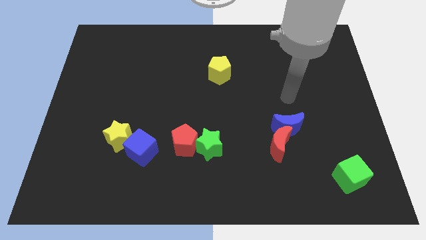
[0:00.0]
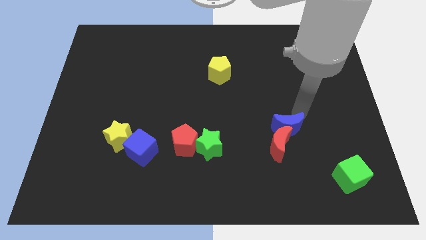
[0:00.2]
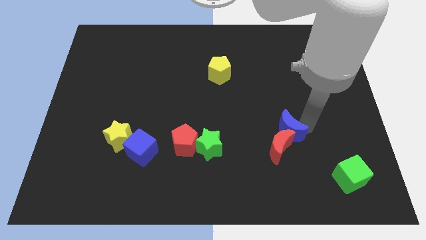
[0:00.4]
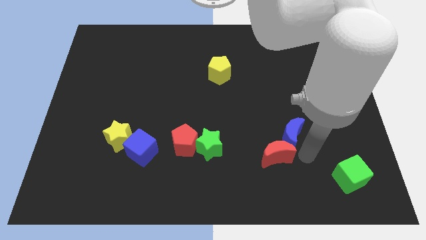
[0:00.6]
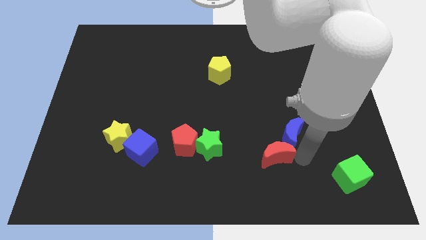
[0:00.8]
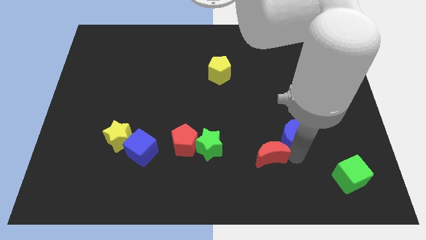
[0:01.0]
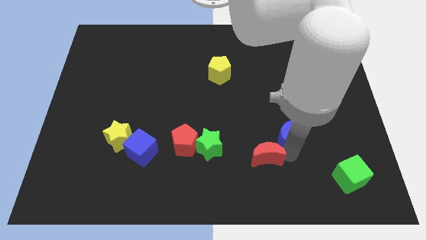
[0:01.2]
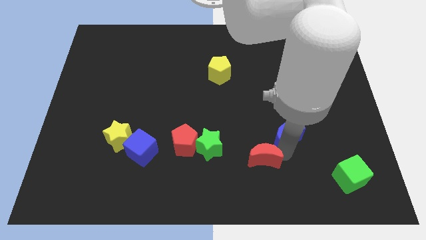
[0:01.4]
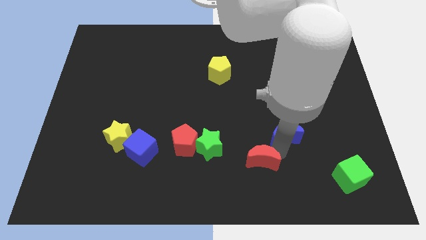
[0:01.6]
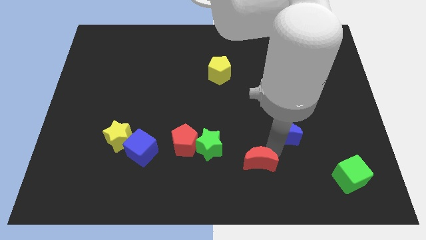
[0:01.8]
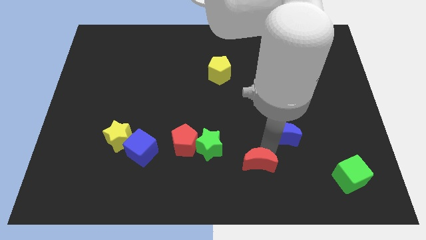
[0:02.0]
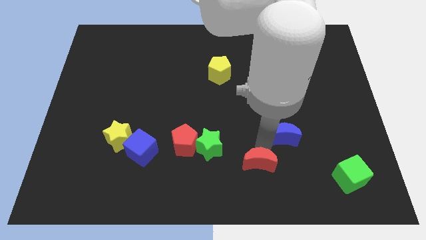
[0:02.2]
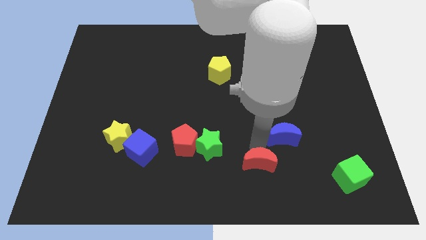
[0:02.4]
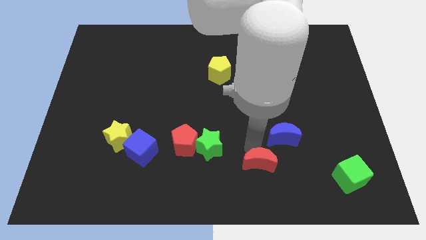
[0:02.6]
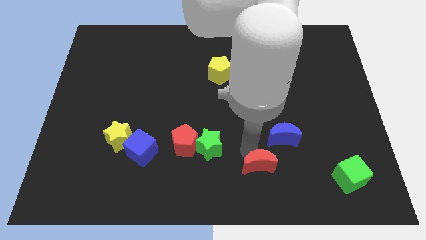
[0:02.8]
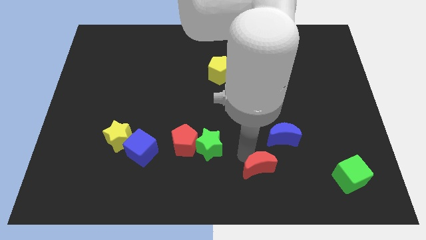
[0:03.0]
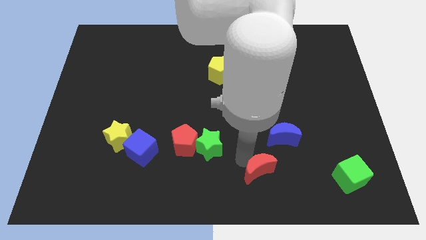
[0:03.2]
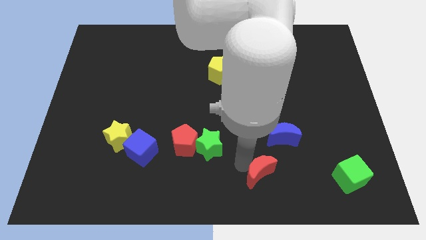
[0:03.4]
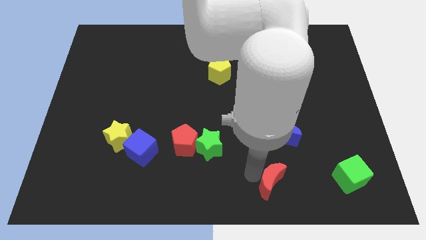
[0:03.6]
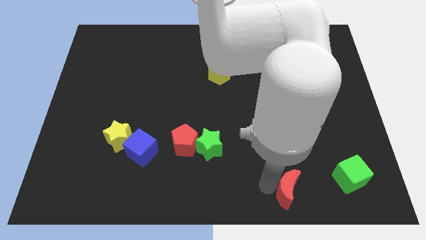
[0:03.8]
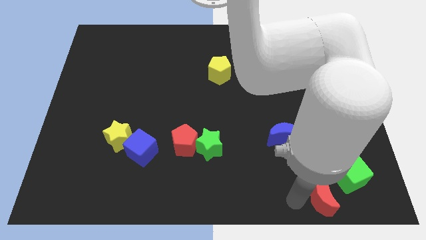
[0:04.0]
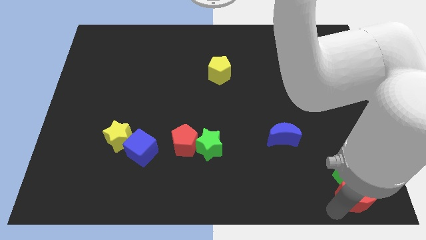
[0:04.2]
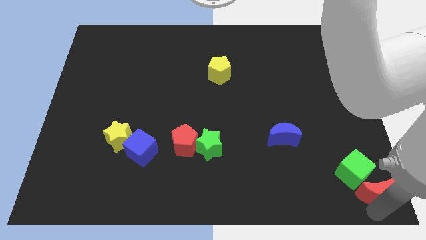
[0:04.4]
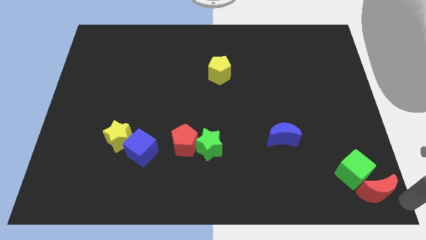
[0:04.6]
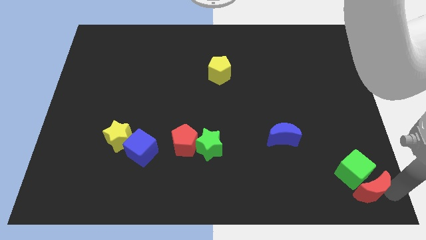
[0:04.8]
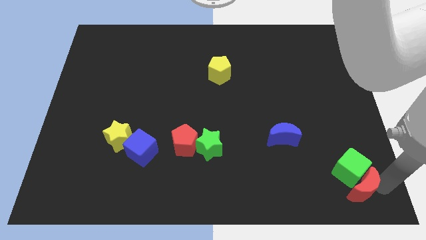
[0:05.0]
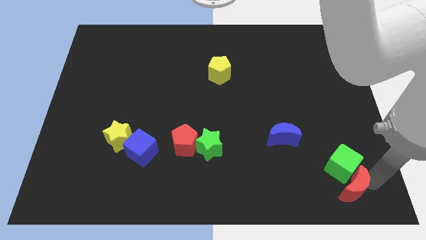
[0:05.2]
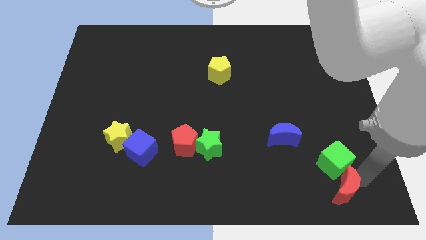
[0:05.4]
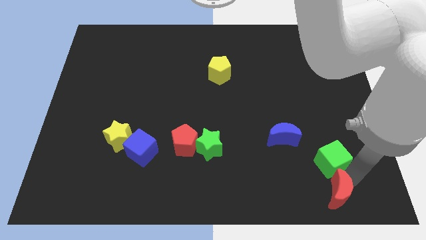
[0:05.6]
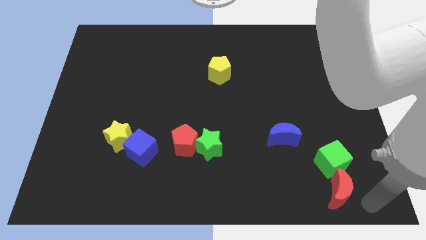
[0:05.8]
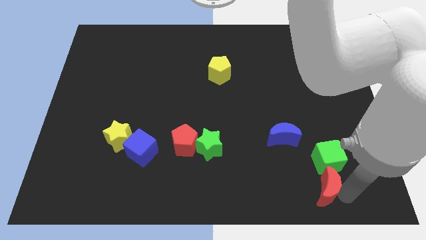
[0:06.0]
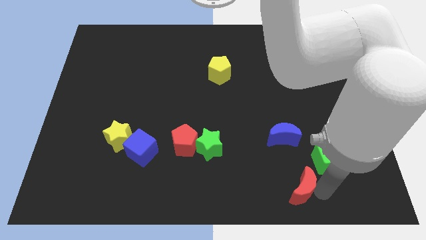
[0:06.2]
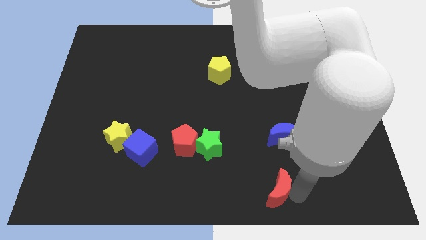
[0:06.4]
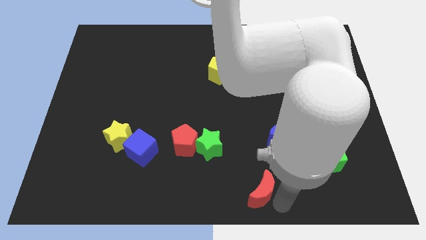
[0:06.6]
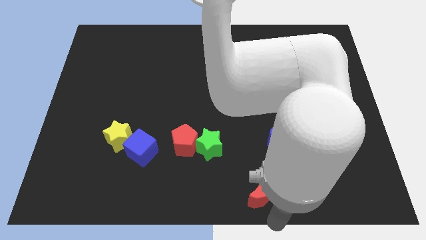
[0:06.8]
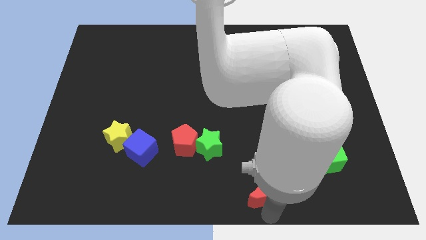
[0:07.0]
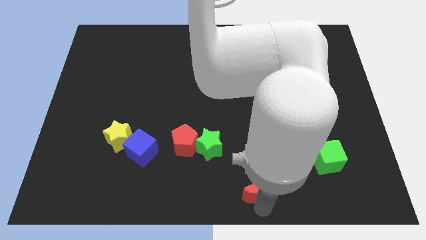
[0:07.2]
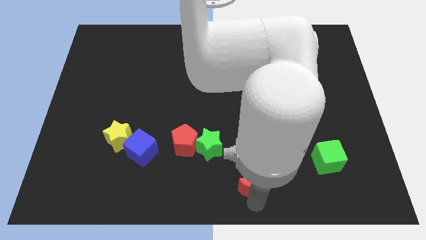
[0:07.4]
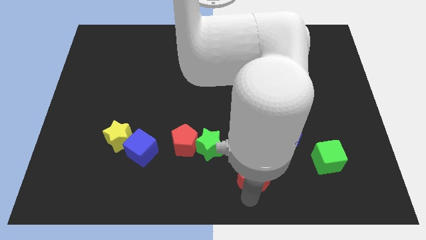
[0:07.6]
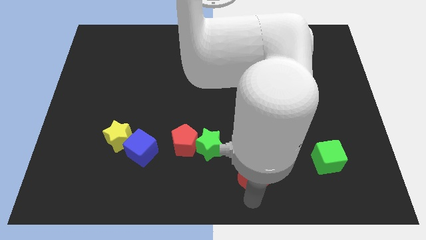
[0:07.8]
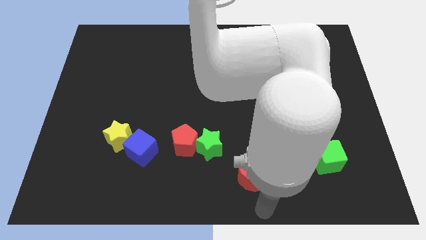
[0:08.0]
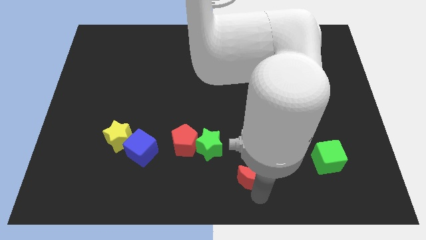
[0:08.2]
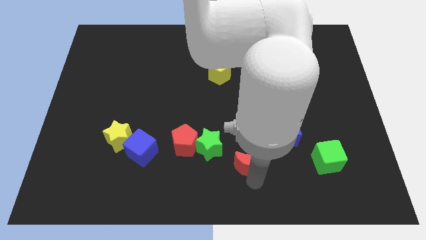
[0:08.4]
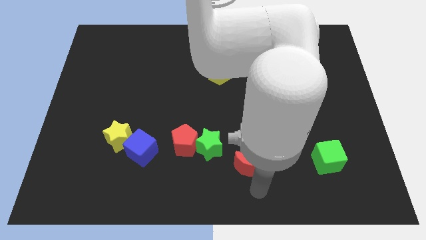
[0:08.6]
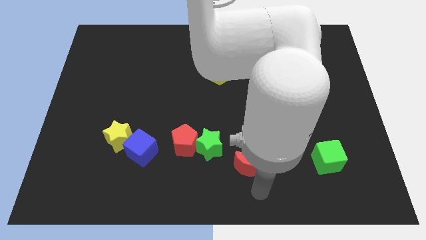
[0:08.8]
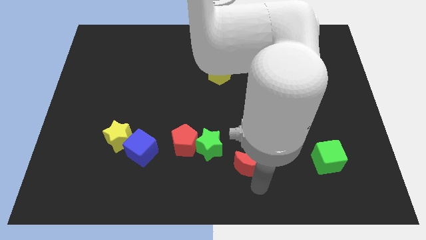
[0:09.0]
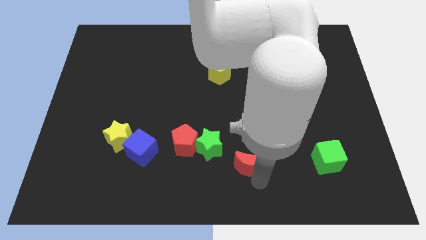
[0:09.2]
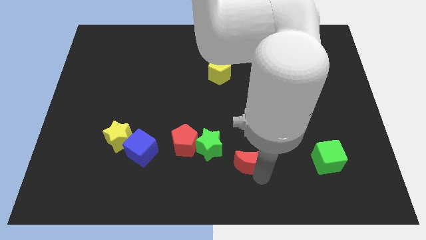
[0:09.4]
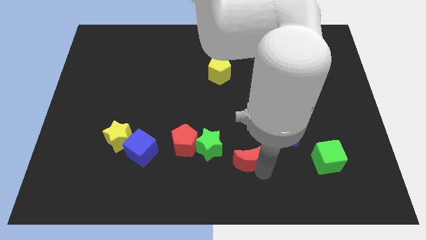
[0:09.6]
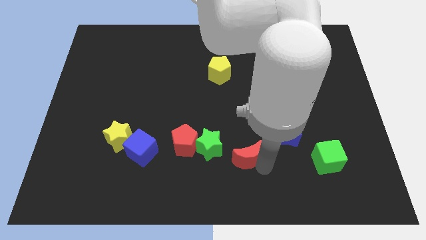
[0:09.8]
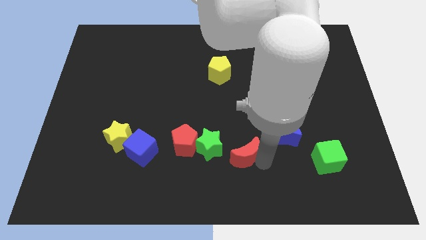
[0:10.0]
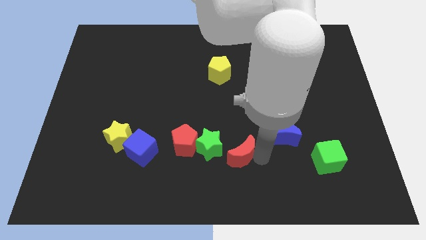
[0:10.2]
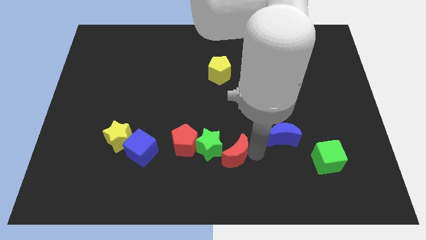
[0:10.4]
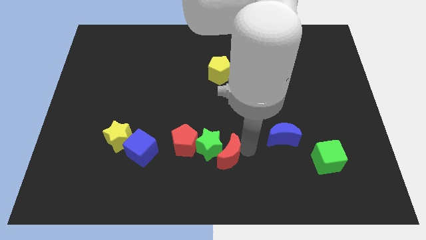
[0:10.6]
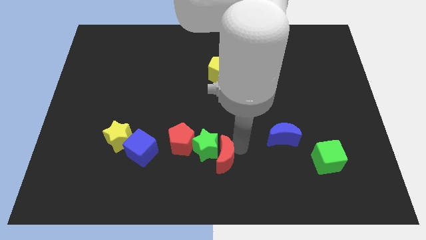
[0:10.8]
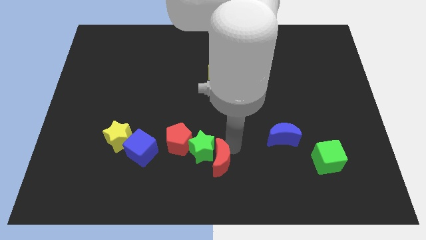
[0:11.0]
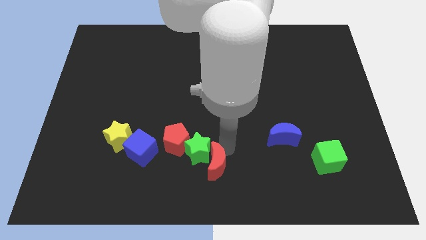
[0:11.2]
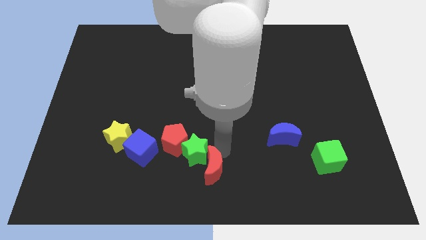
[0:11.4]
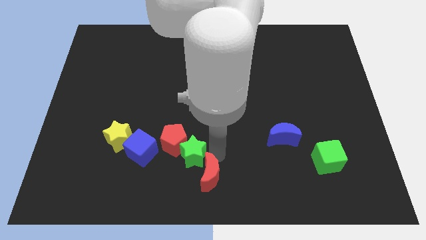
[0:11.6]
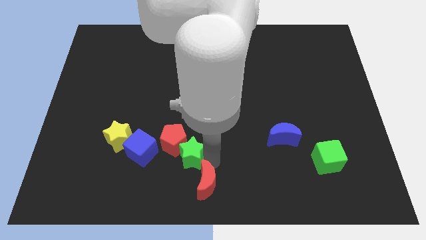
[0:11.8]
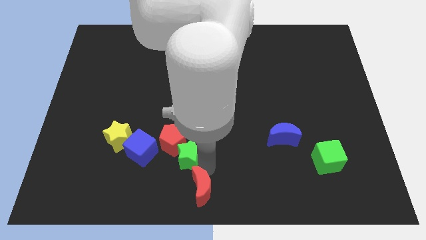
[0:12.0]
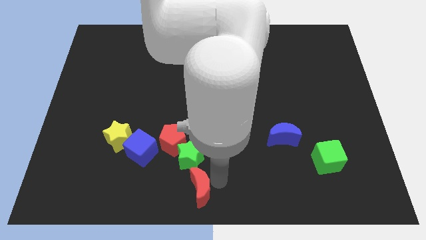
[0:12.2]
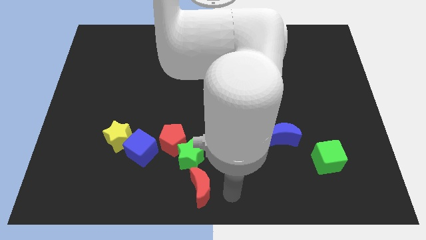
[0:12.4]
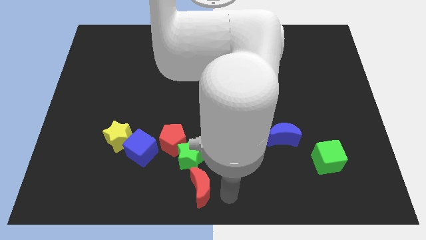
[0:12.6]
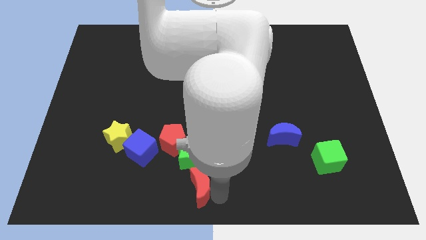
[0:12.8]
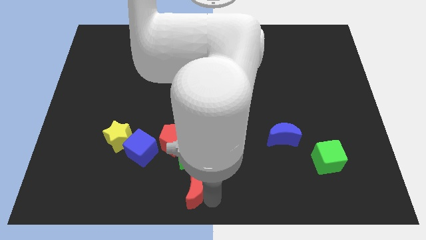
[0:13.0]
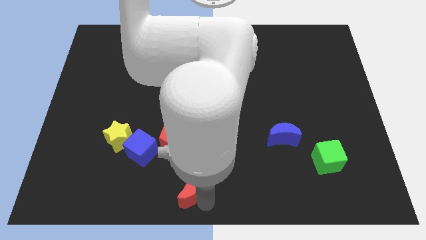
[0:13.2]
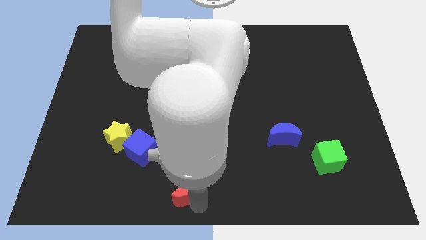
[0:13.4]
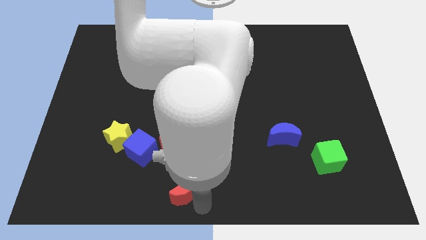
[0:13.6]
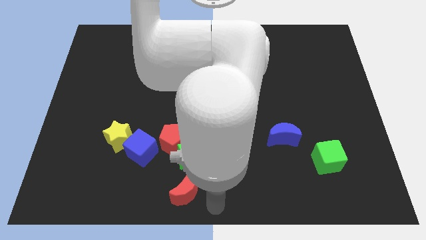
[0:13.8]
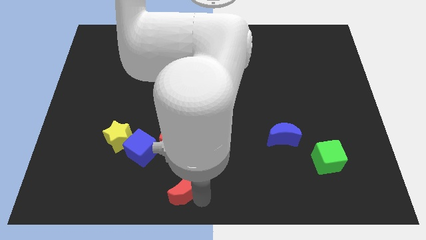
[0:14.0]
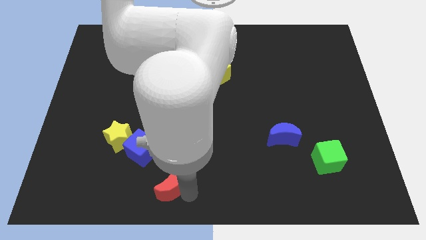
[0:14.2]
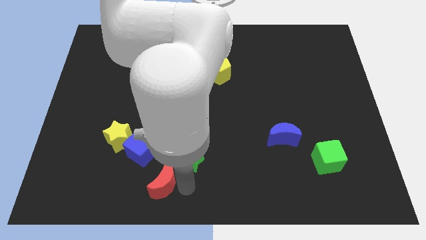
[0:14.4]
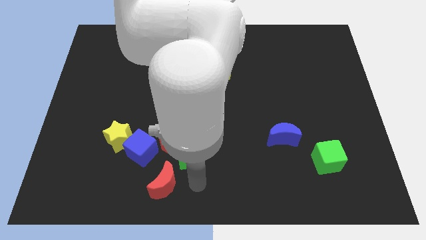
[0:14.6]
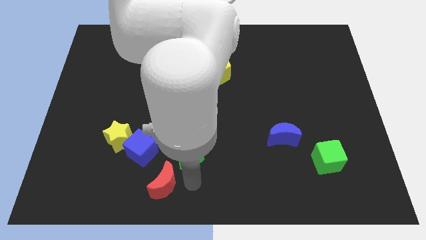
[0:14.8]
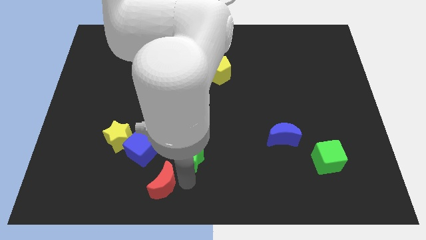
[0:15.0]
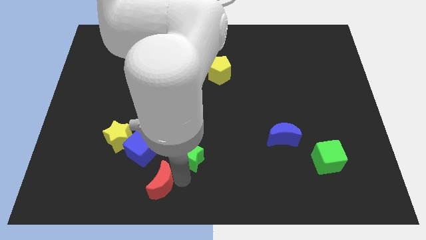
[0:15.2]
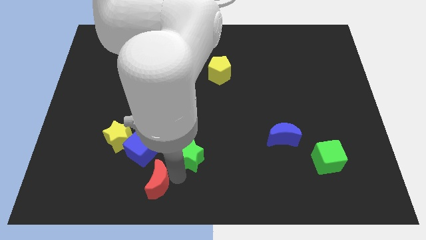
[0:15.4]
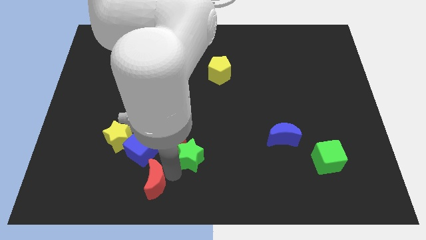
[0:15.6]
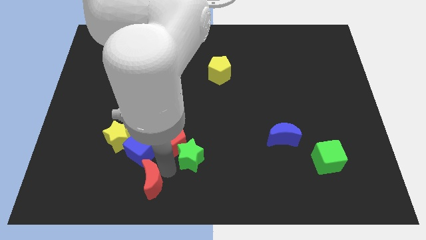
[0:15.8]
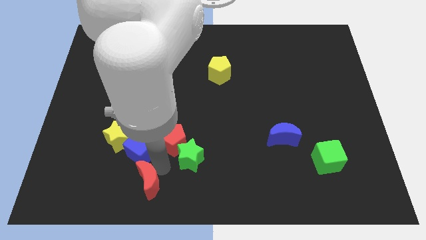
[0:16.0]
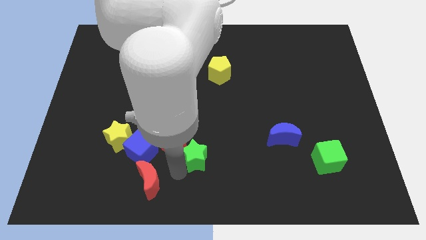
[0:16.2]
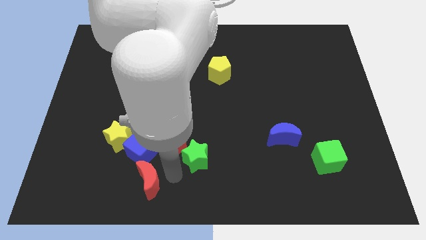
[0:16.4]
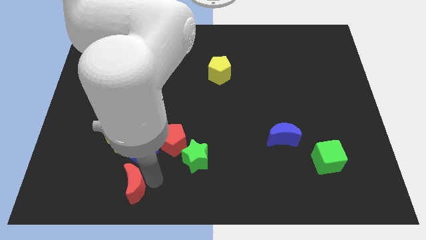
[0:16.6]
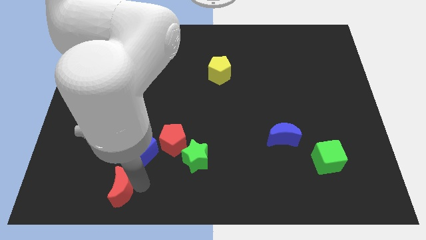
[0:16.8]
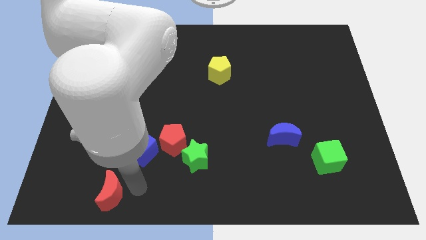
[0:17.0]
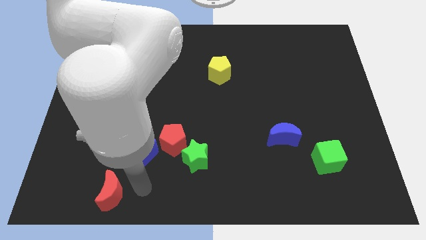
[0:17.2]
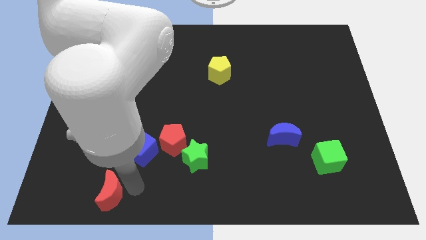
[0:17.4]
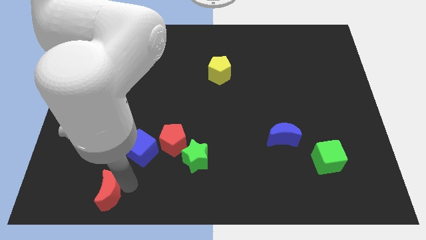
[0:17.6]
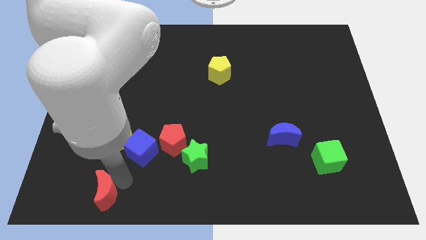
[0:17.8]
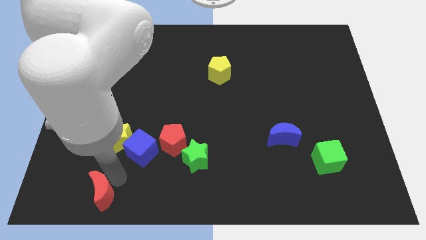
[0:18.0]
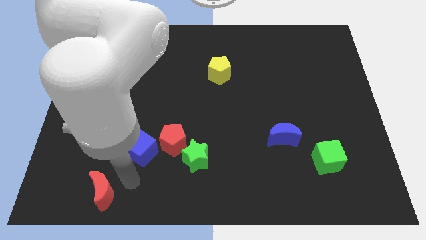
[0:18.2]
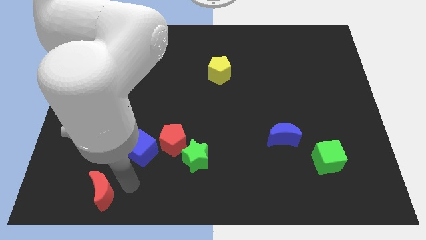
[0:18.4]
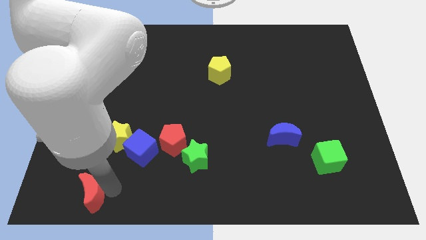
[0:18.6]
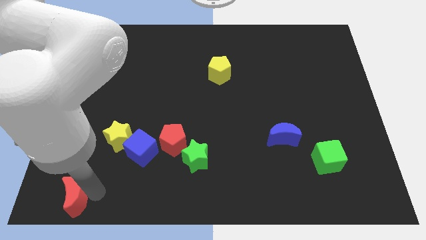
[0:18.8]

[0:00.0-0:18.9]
put the red moon to the bottom left
